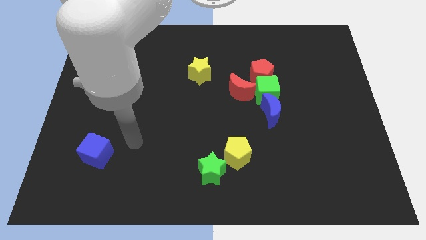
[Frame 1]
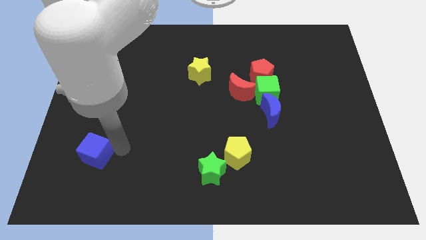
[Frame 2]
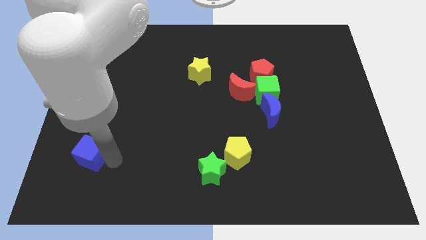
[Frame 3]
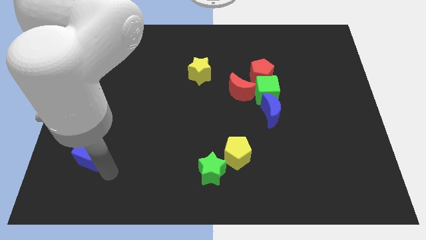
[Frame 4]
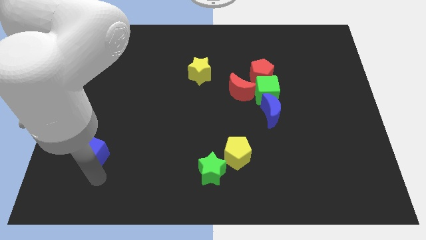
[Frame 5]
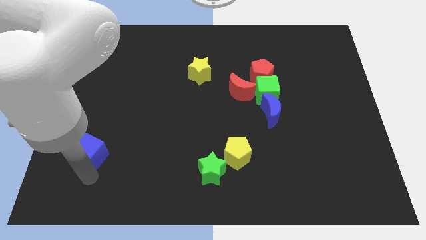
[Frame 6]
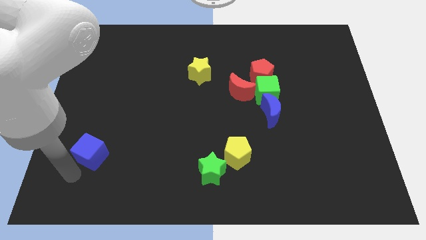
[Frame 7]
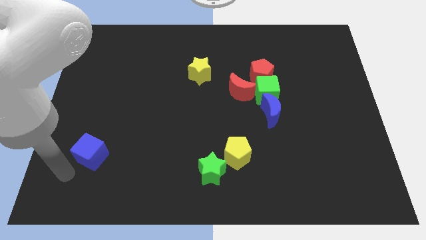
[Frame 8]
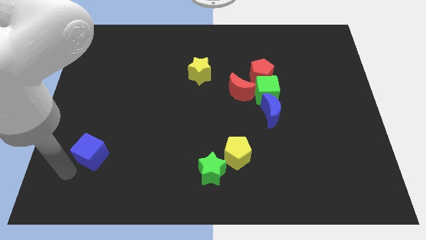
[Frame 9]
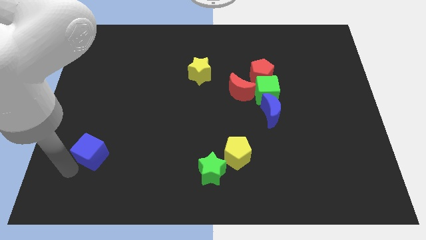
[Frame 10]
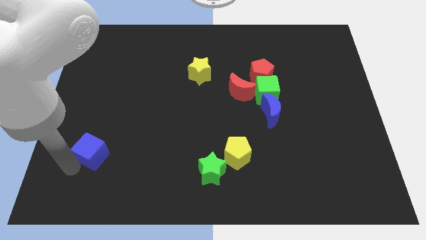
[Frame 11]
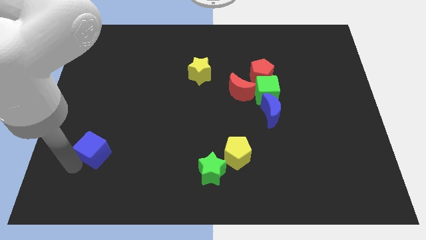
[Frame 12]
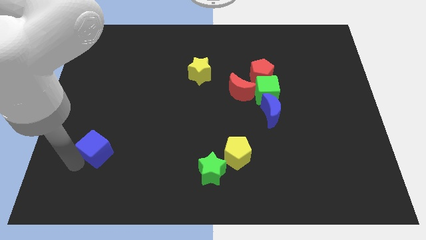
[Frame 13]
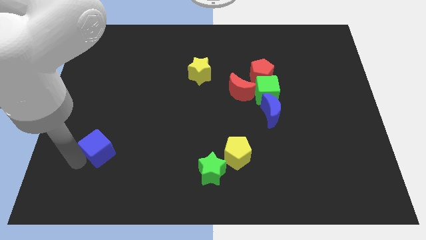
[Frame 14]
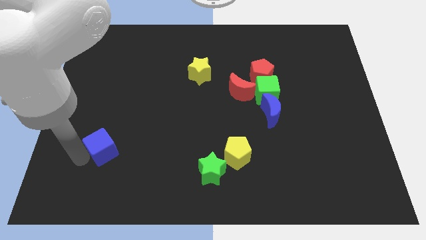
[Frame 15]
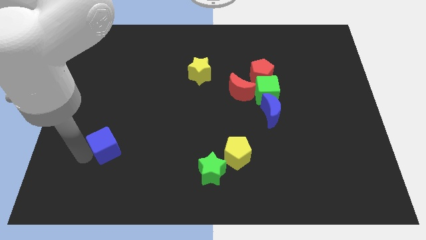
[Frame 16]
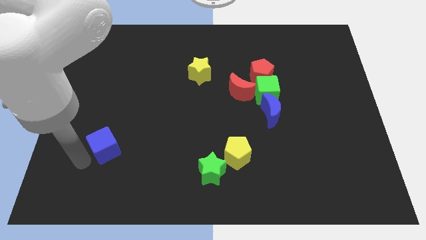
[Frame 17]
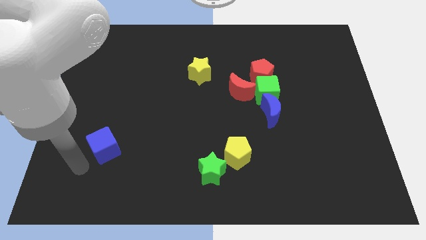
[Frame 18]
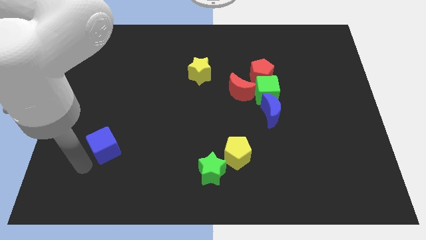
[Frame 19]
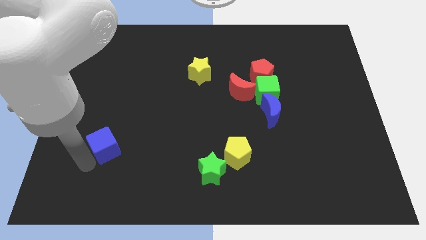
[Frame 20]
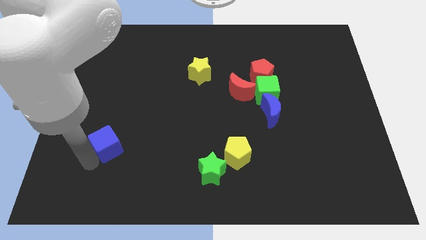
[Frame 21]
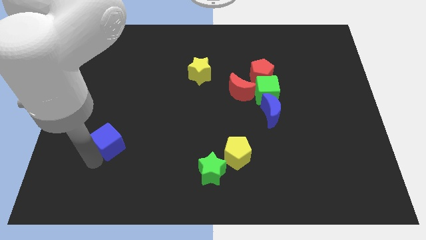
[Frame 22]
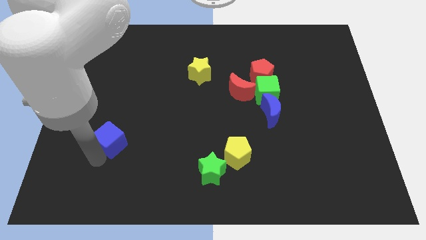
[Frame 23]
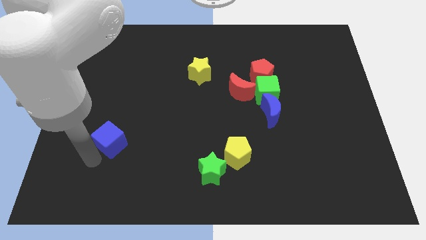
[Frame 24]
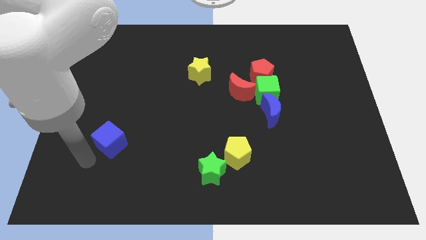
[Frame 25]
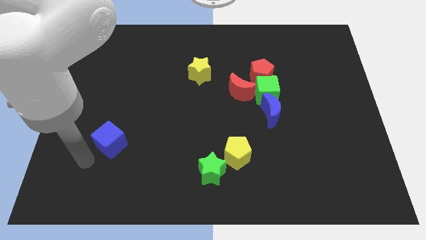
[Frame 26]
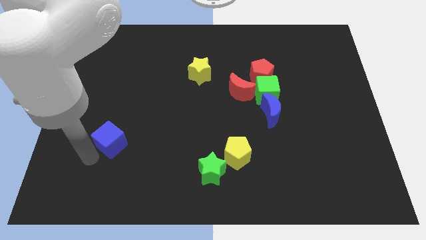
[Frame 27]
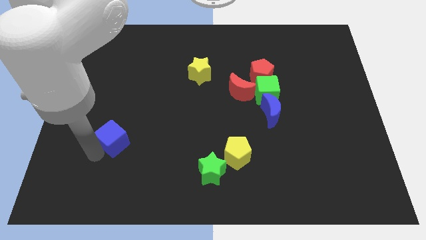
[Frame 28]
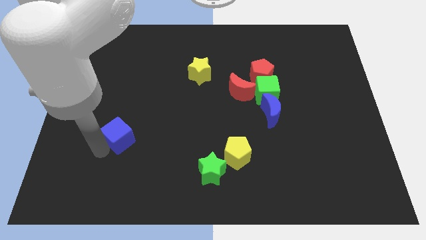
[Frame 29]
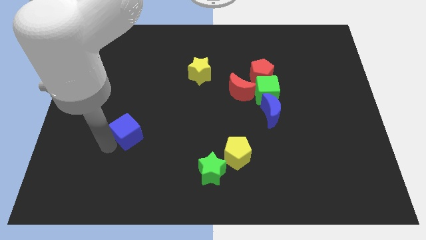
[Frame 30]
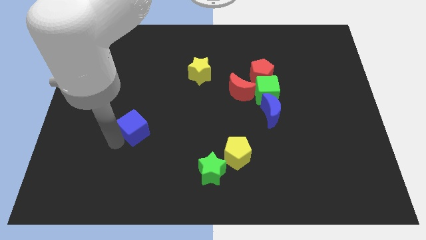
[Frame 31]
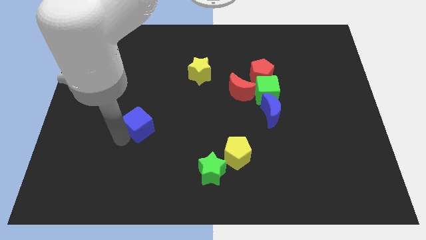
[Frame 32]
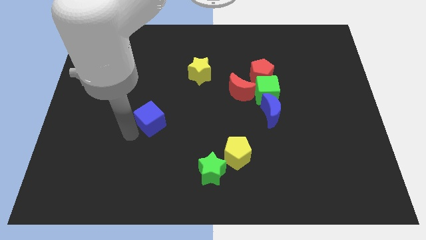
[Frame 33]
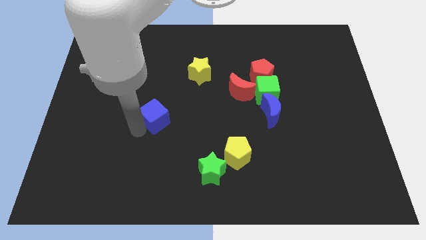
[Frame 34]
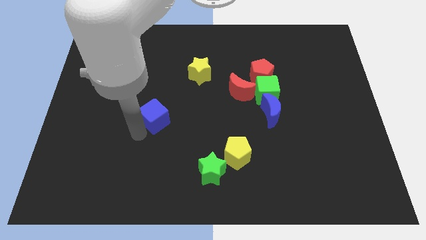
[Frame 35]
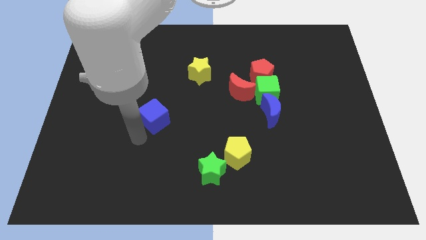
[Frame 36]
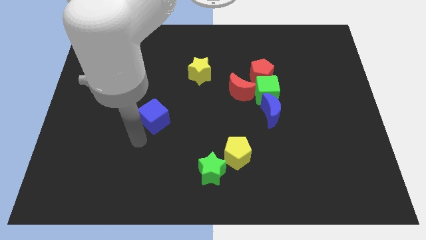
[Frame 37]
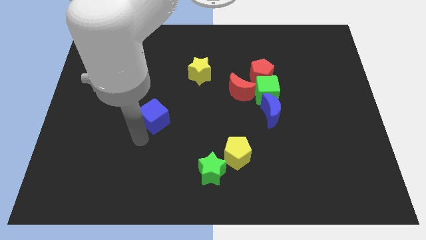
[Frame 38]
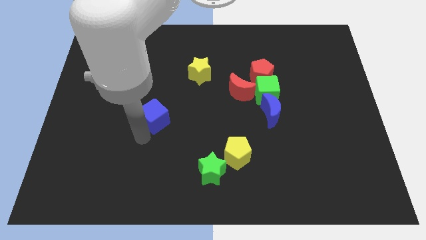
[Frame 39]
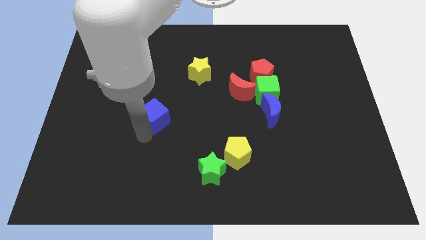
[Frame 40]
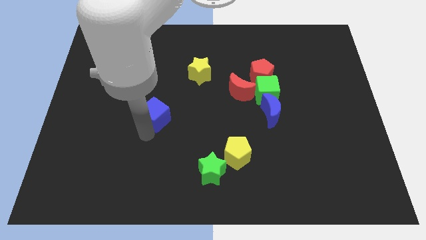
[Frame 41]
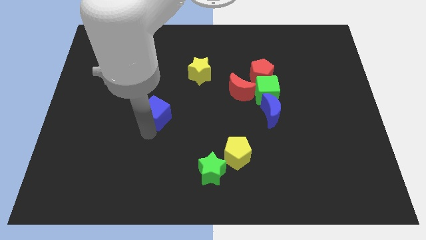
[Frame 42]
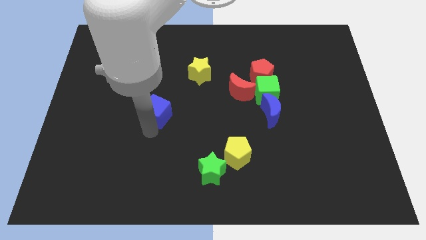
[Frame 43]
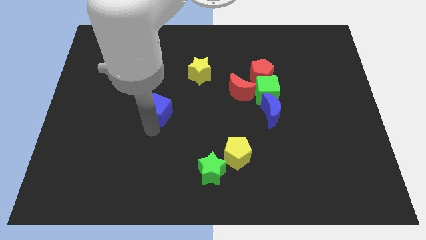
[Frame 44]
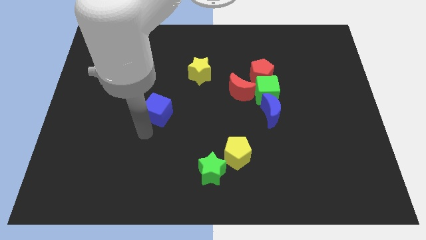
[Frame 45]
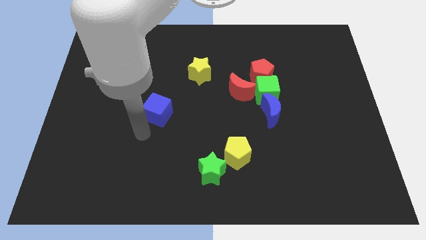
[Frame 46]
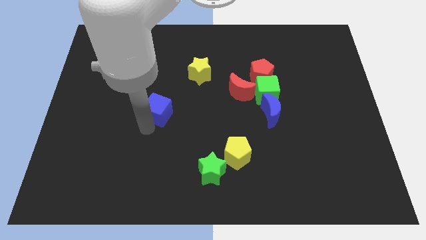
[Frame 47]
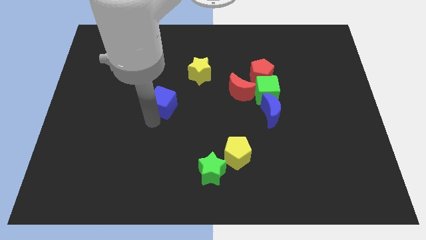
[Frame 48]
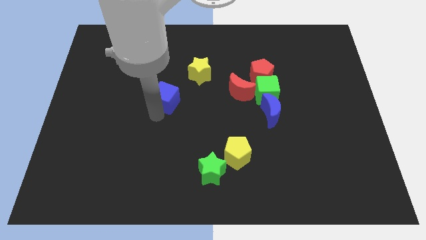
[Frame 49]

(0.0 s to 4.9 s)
push the blue cube diagonally down and to the left of the yellow star

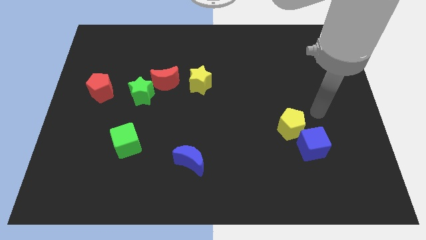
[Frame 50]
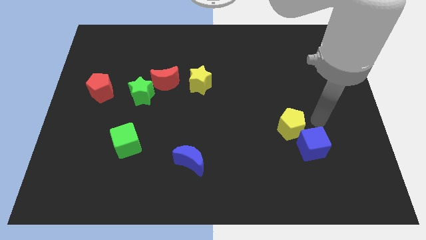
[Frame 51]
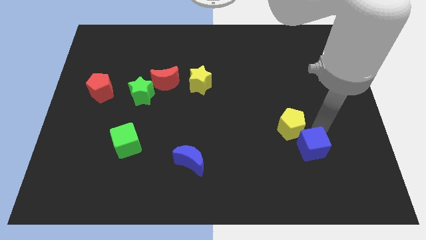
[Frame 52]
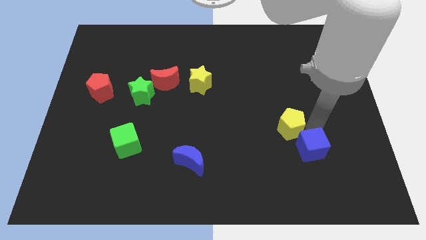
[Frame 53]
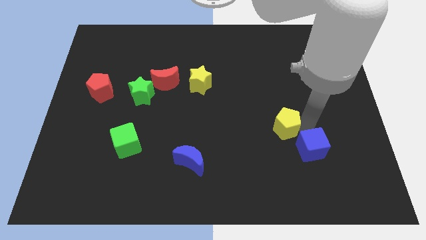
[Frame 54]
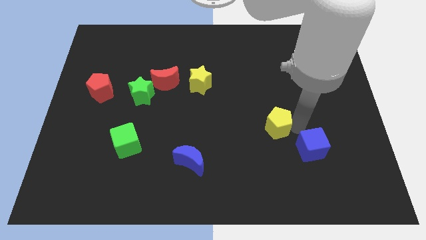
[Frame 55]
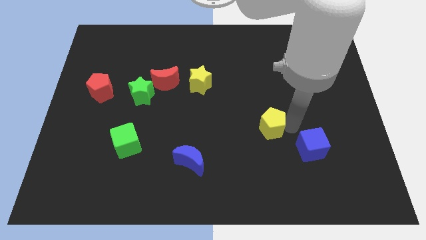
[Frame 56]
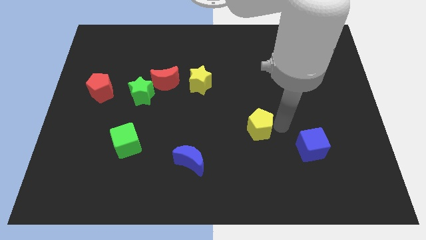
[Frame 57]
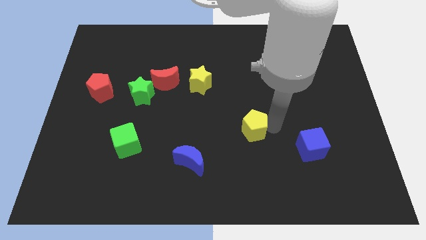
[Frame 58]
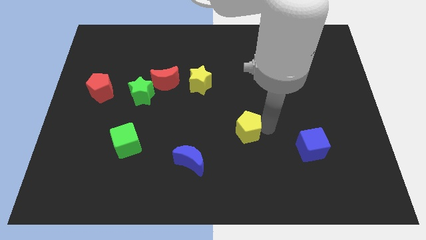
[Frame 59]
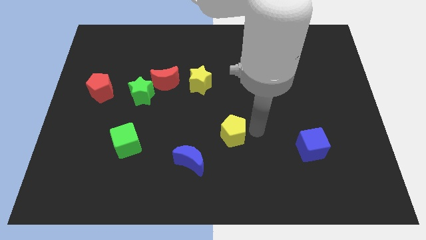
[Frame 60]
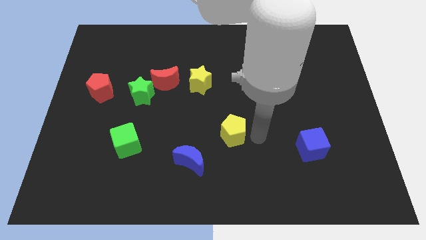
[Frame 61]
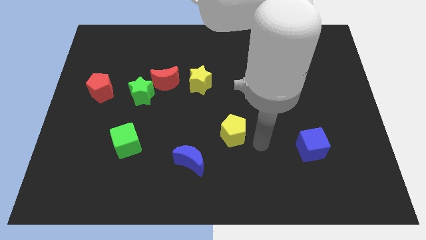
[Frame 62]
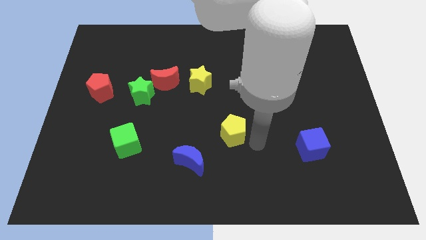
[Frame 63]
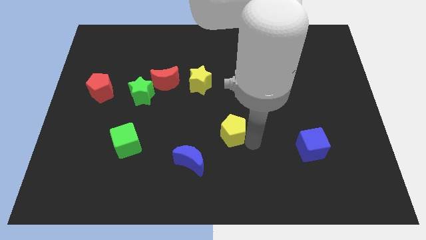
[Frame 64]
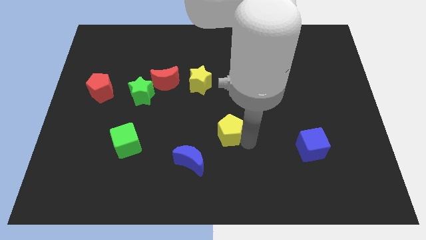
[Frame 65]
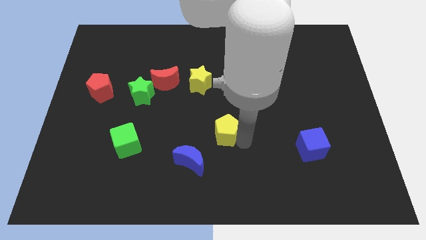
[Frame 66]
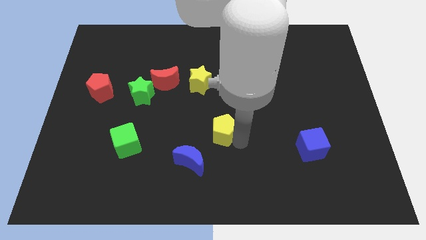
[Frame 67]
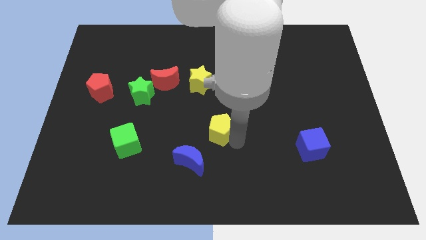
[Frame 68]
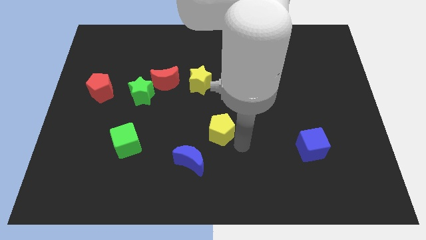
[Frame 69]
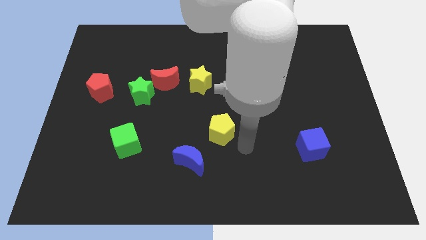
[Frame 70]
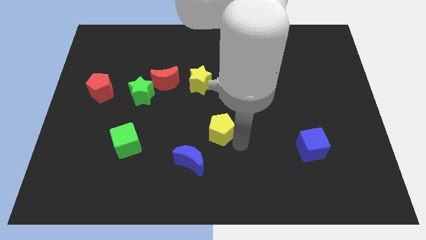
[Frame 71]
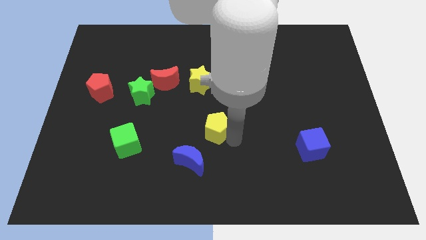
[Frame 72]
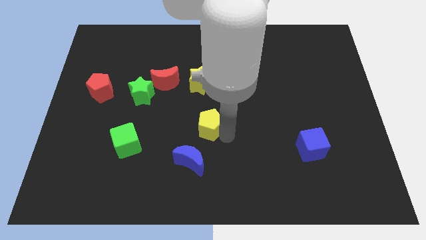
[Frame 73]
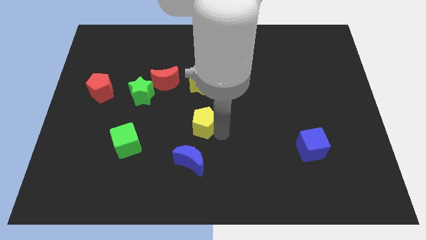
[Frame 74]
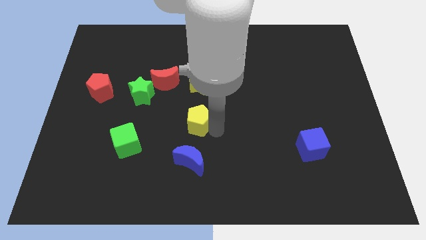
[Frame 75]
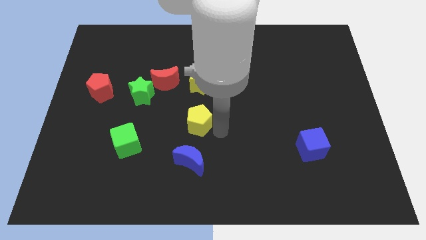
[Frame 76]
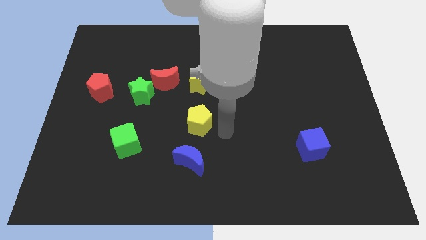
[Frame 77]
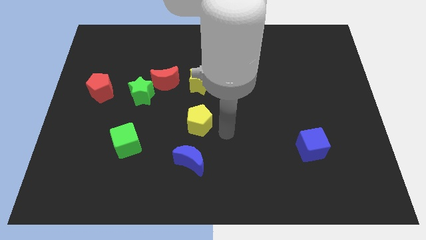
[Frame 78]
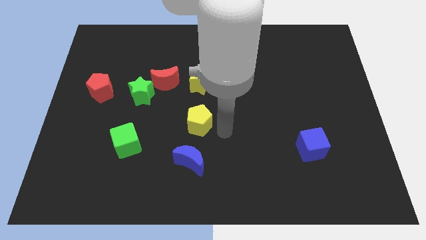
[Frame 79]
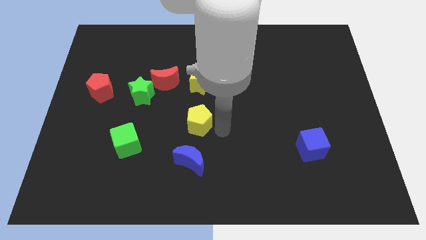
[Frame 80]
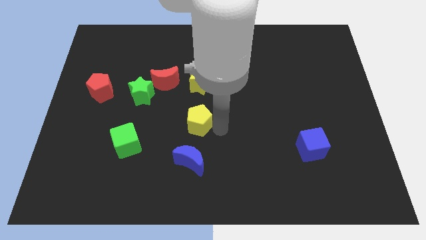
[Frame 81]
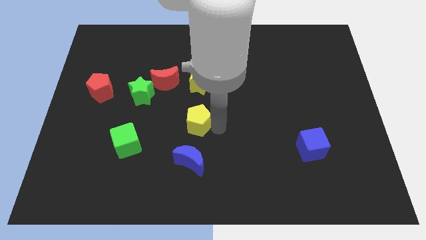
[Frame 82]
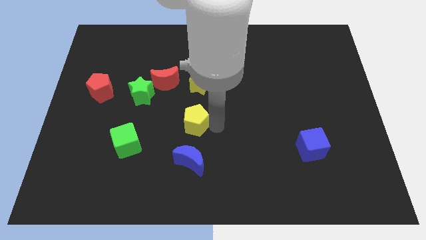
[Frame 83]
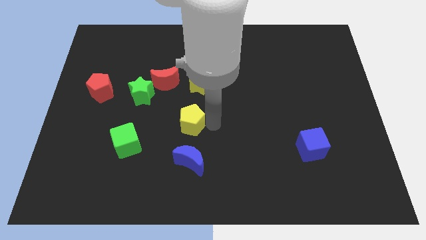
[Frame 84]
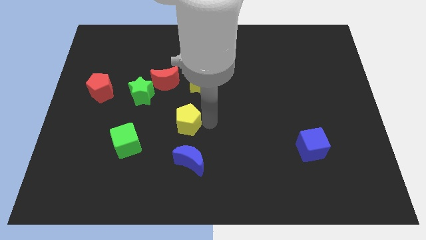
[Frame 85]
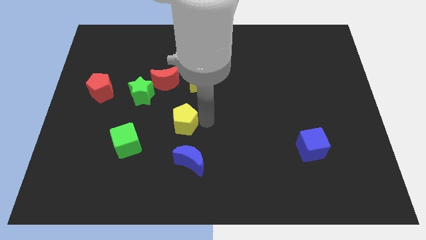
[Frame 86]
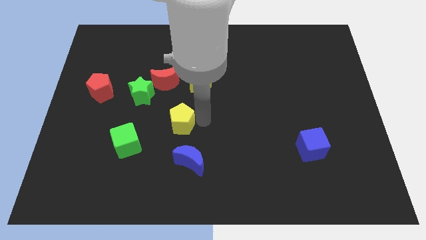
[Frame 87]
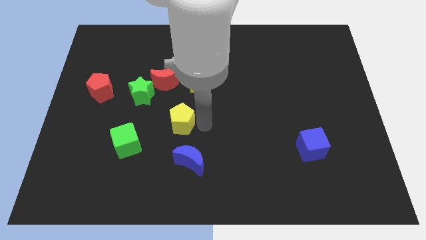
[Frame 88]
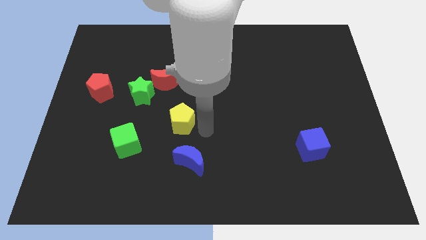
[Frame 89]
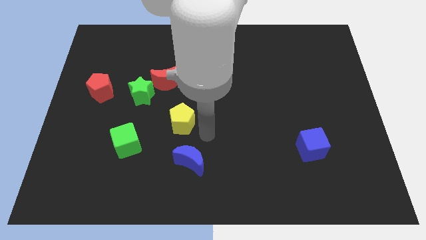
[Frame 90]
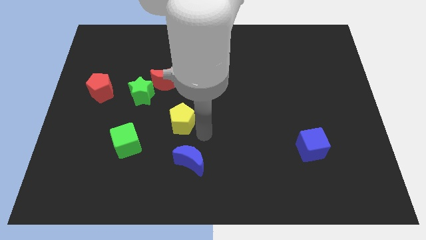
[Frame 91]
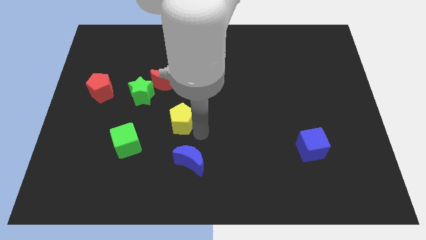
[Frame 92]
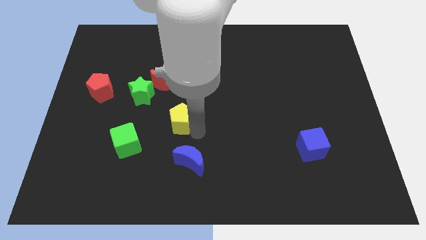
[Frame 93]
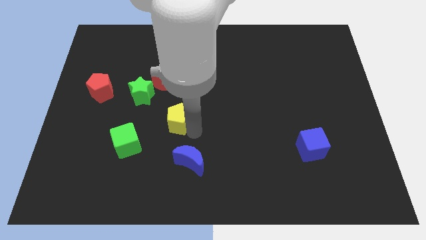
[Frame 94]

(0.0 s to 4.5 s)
move the yellow pentagon to the bottom right of the green star
